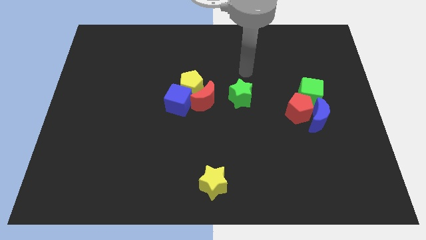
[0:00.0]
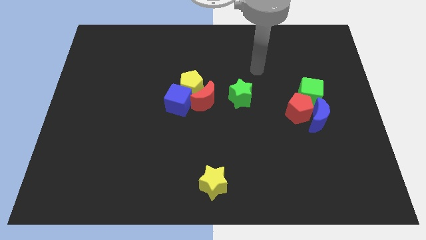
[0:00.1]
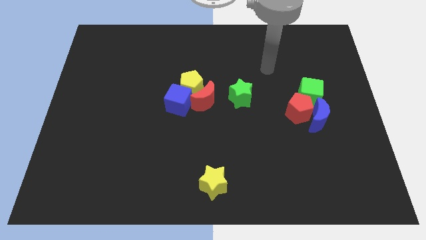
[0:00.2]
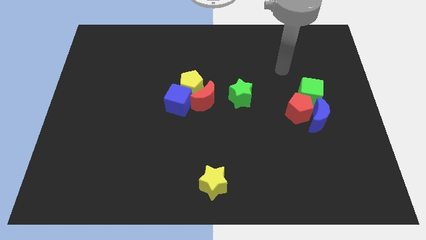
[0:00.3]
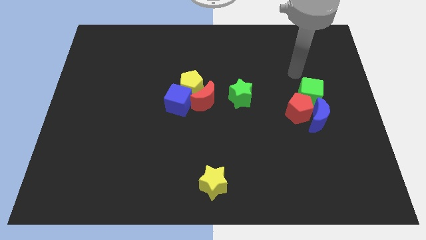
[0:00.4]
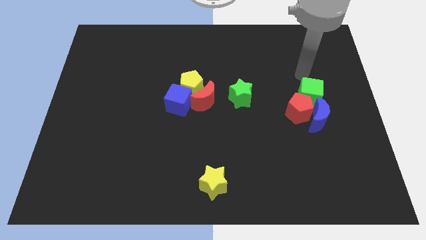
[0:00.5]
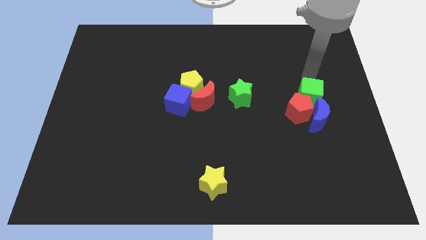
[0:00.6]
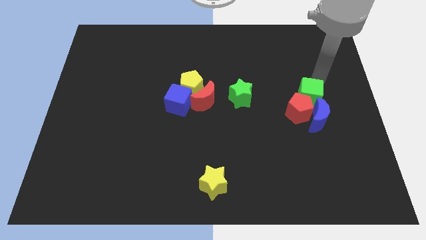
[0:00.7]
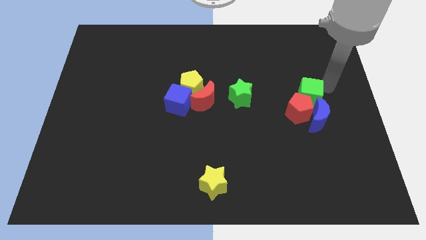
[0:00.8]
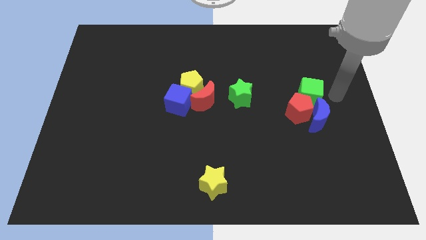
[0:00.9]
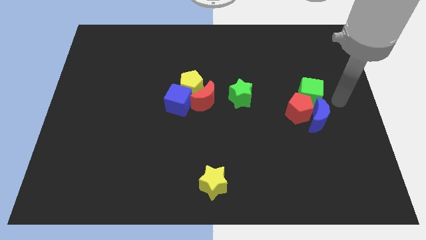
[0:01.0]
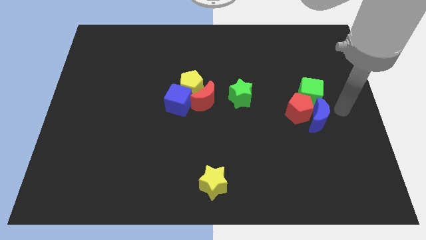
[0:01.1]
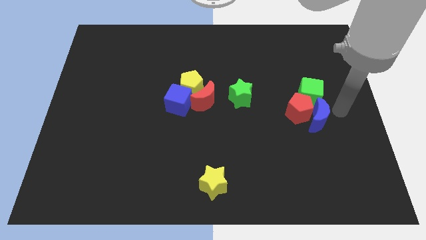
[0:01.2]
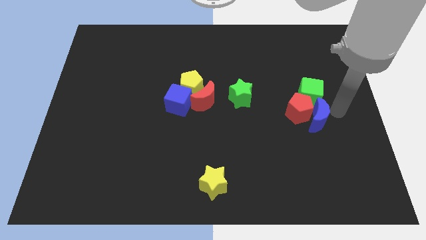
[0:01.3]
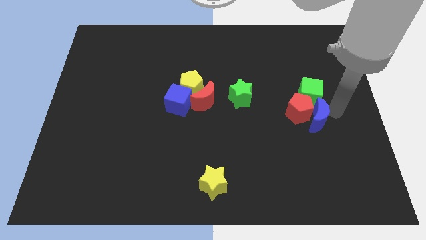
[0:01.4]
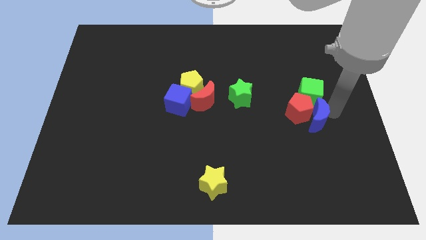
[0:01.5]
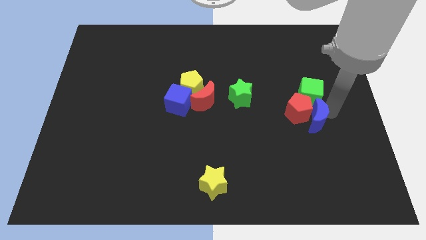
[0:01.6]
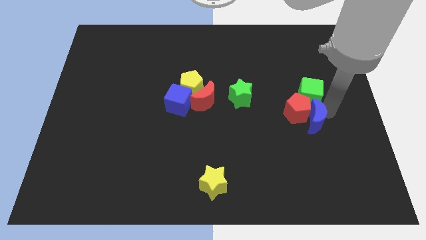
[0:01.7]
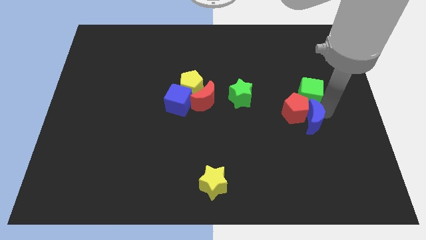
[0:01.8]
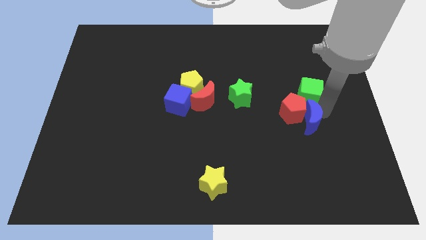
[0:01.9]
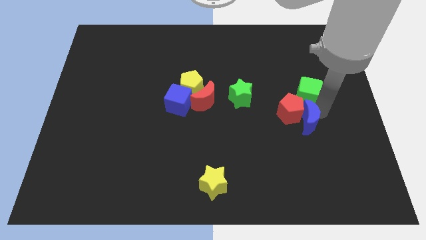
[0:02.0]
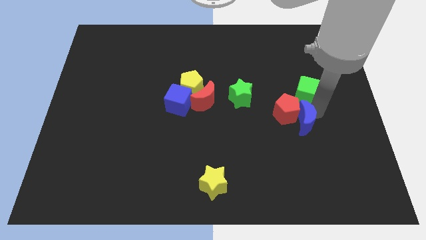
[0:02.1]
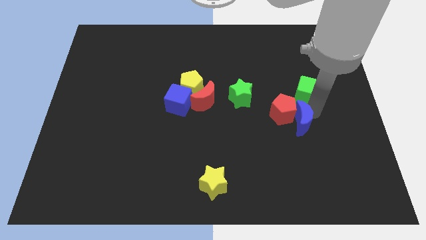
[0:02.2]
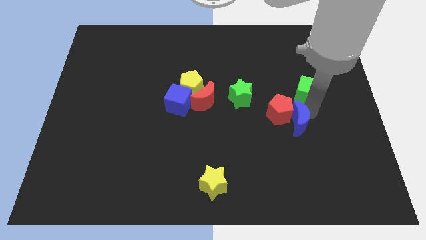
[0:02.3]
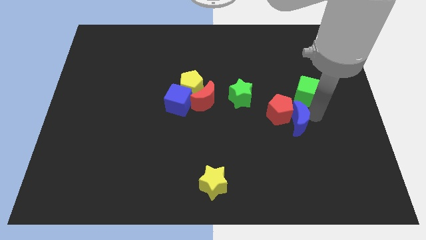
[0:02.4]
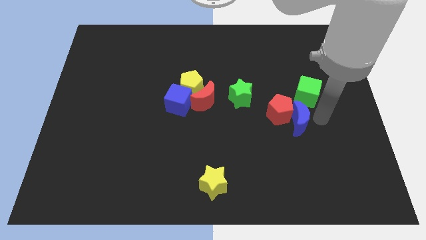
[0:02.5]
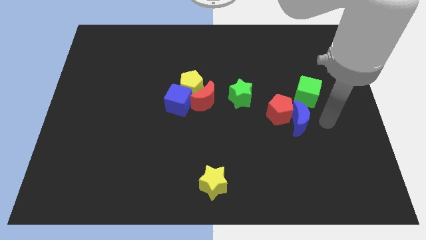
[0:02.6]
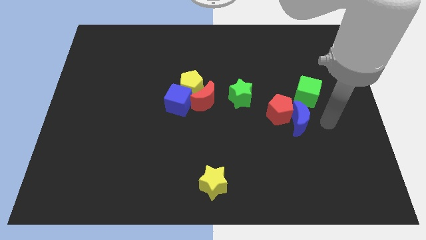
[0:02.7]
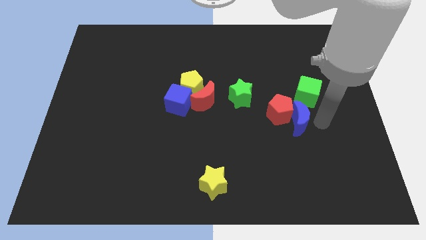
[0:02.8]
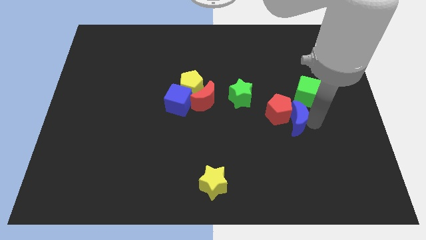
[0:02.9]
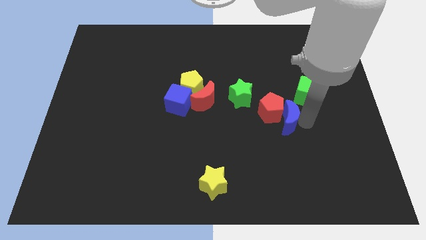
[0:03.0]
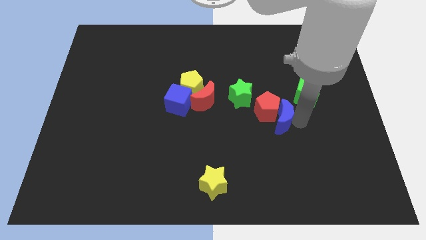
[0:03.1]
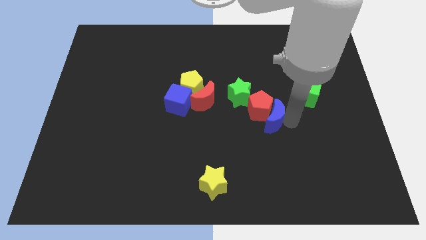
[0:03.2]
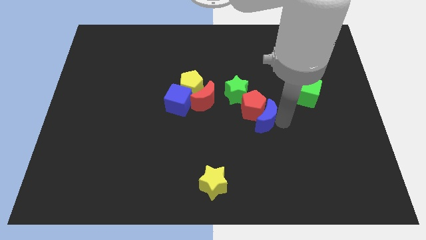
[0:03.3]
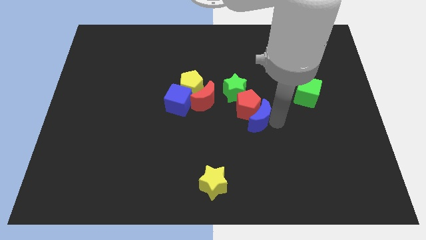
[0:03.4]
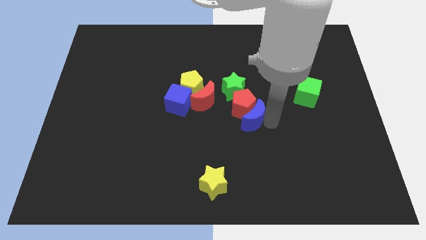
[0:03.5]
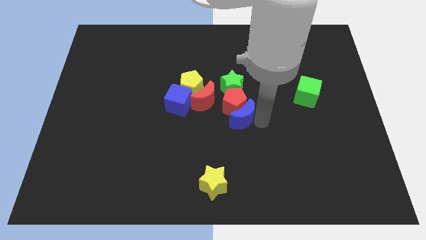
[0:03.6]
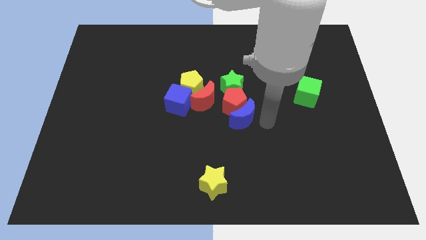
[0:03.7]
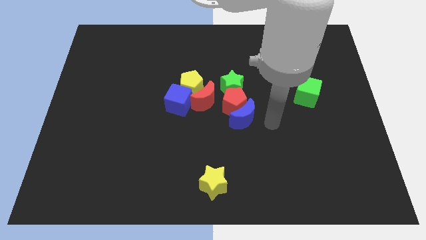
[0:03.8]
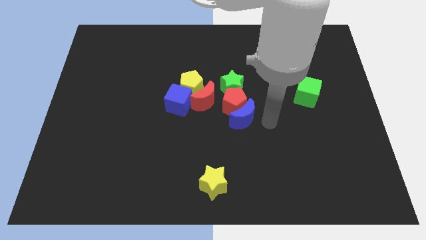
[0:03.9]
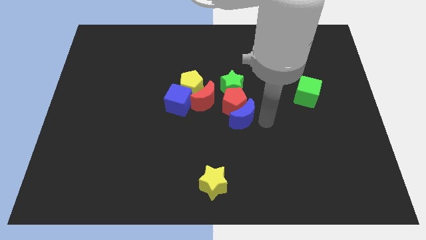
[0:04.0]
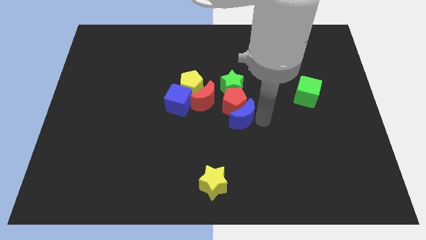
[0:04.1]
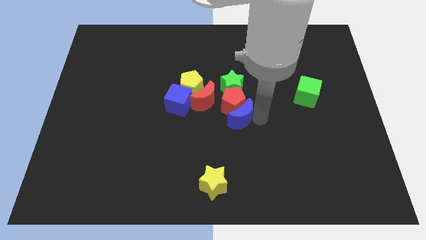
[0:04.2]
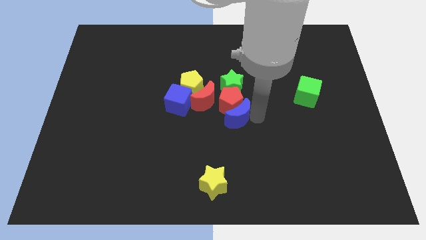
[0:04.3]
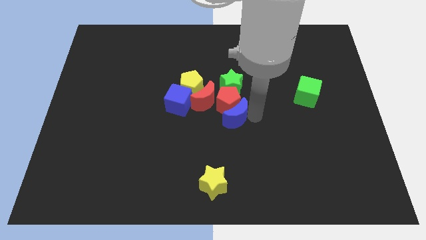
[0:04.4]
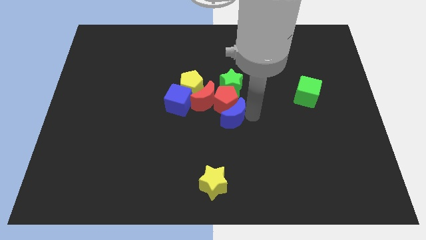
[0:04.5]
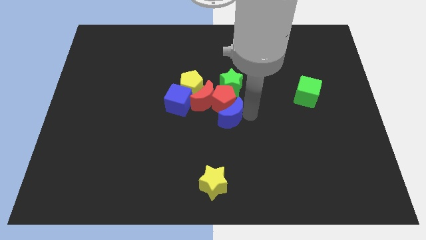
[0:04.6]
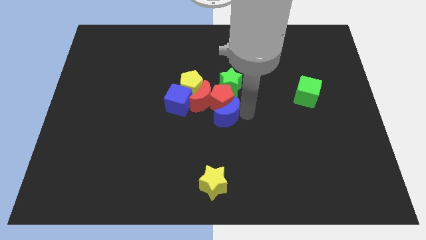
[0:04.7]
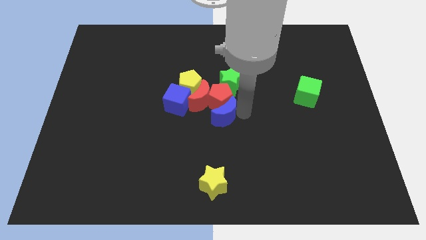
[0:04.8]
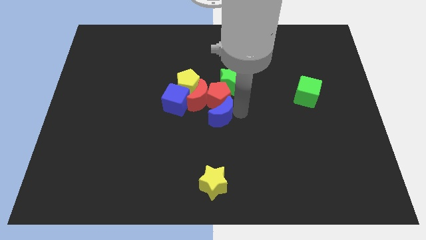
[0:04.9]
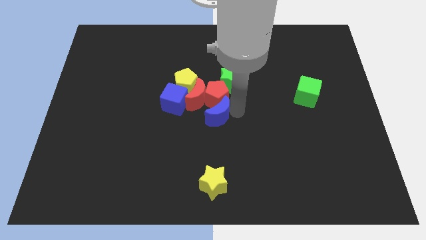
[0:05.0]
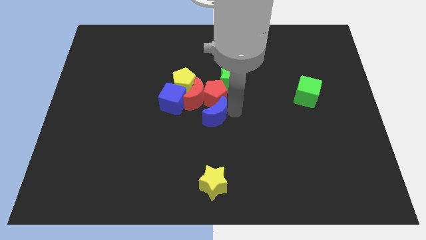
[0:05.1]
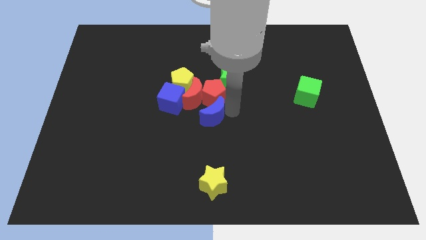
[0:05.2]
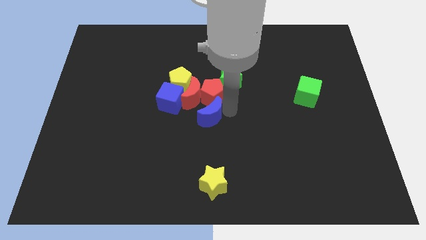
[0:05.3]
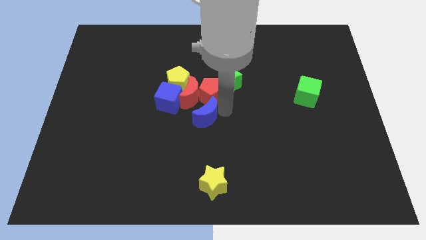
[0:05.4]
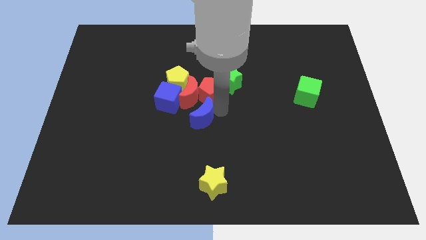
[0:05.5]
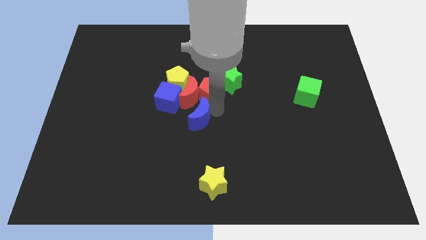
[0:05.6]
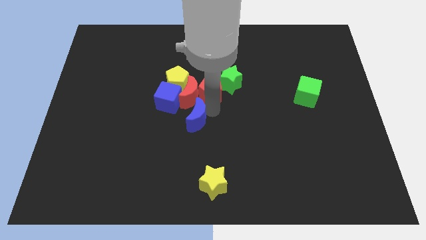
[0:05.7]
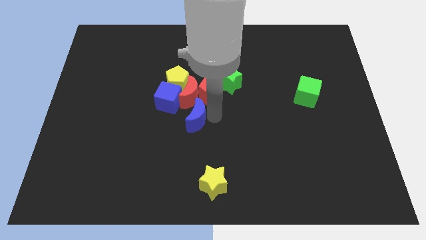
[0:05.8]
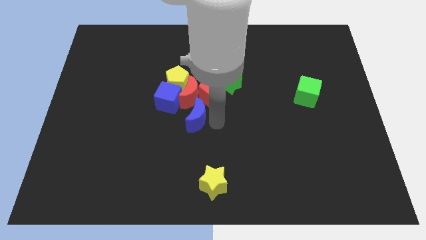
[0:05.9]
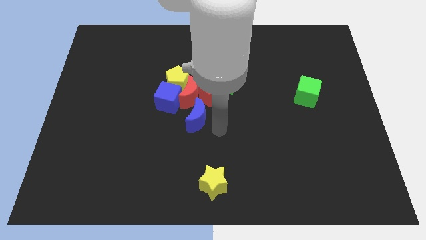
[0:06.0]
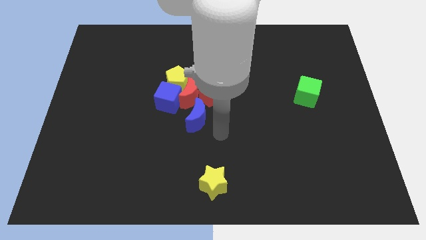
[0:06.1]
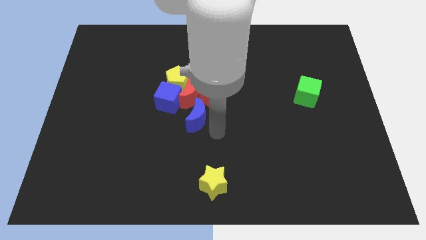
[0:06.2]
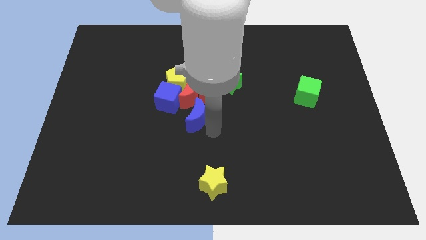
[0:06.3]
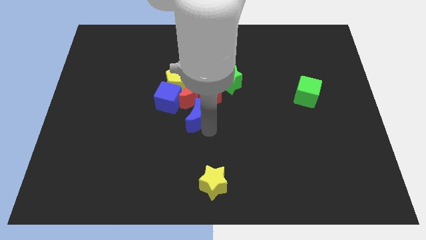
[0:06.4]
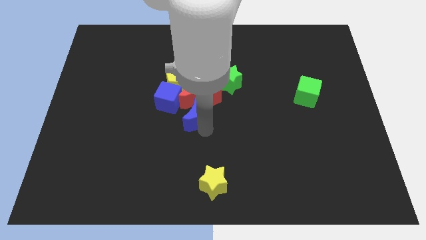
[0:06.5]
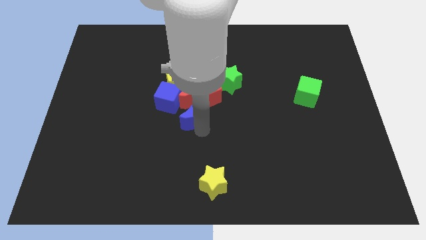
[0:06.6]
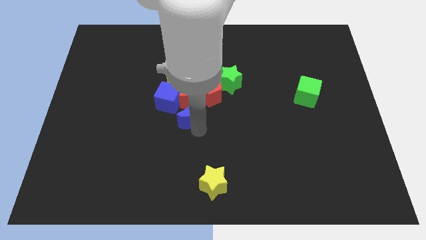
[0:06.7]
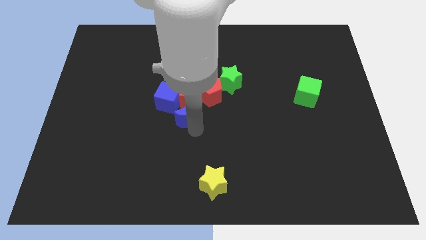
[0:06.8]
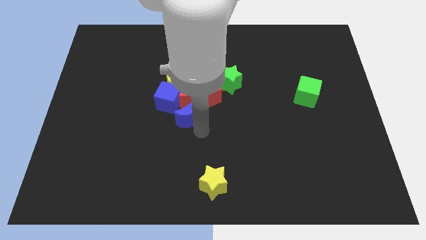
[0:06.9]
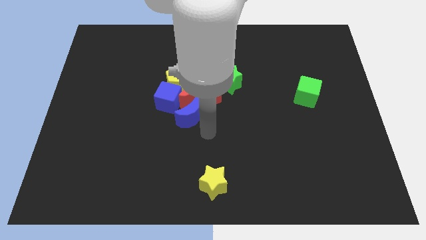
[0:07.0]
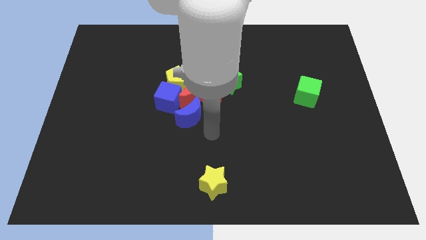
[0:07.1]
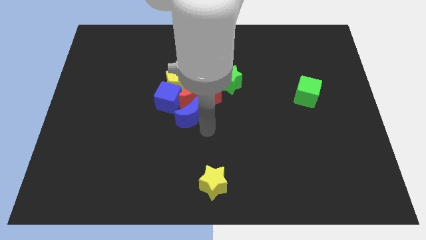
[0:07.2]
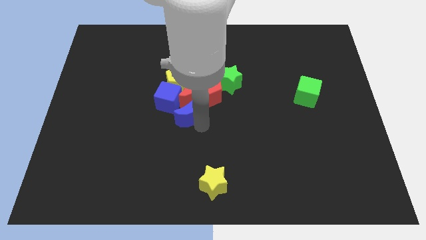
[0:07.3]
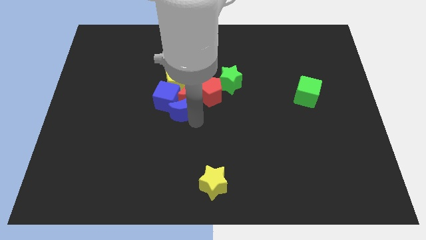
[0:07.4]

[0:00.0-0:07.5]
slide the blue moon to the blue cube
